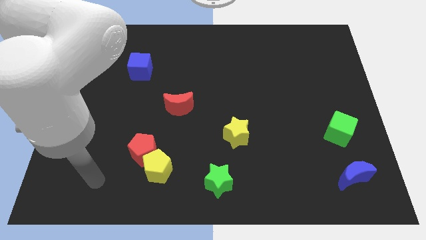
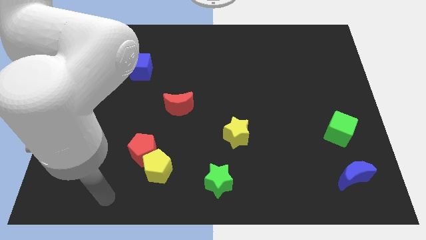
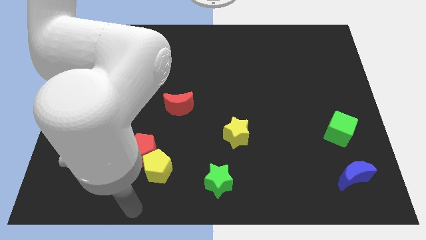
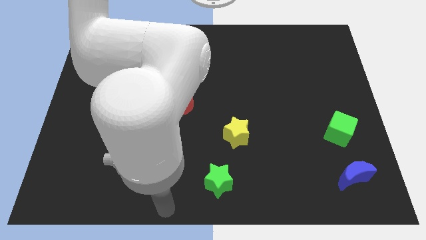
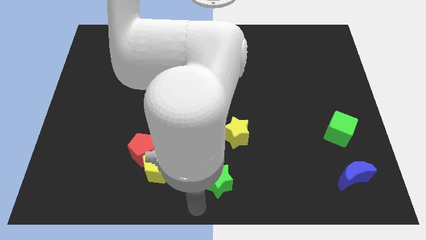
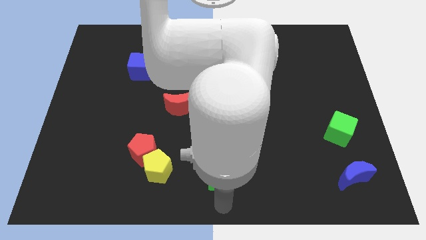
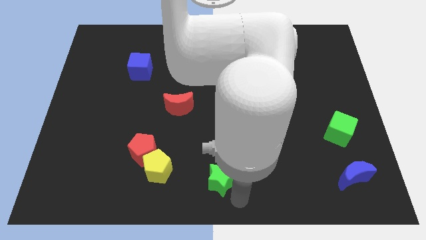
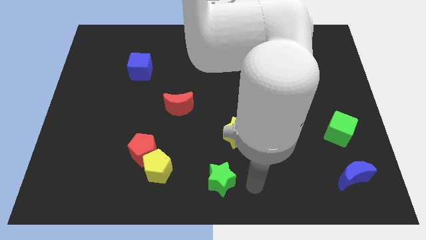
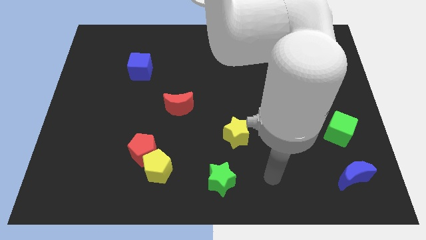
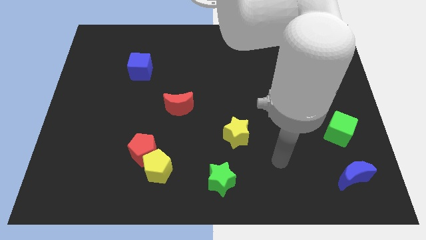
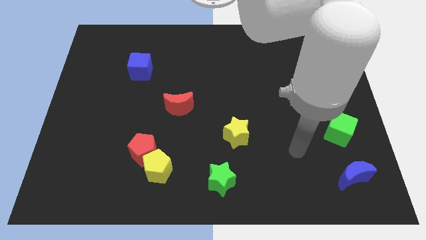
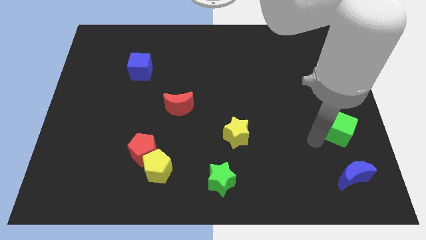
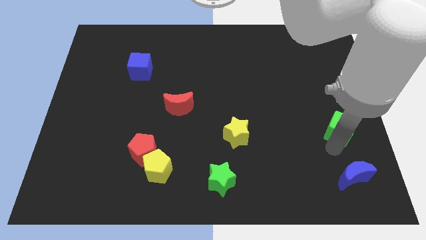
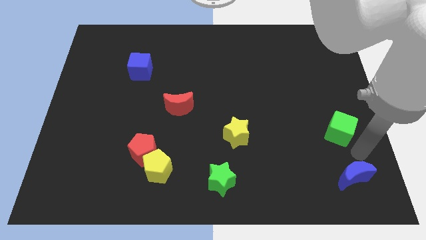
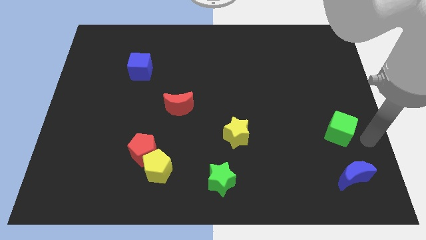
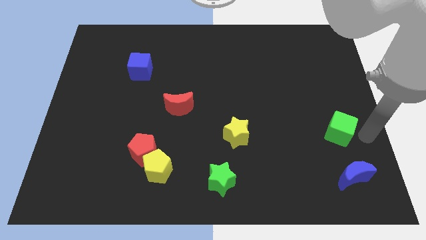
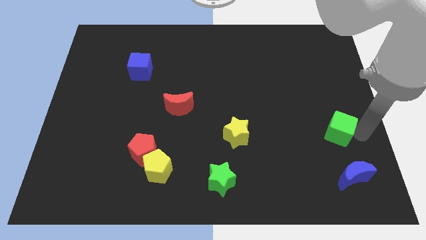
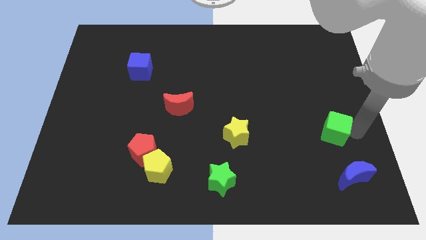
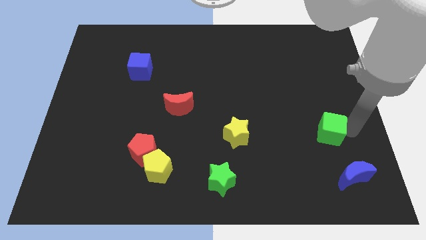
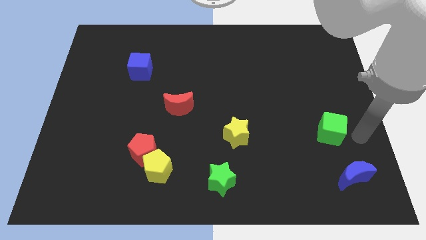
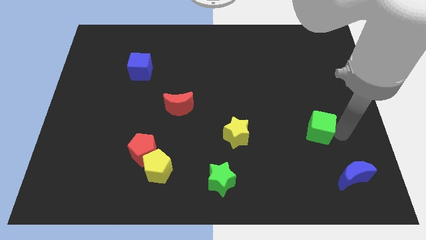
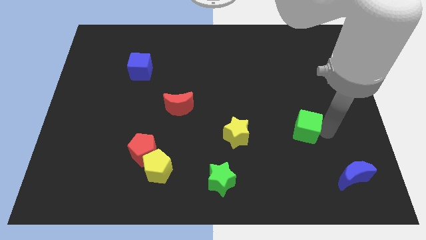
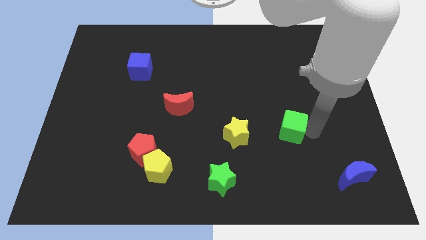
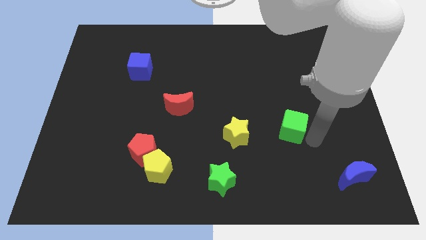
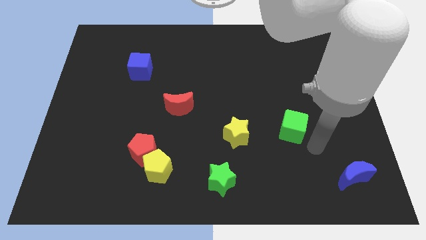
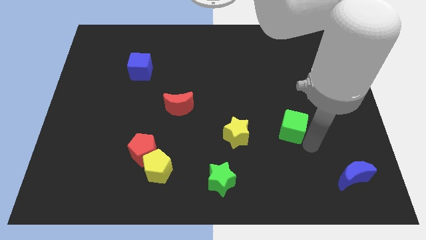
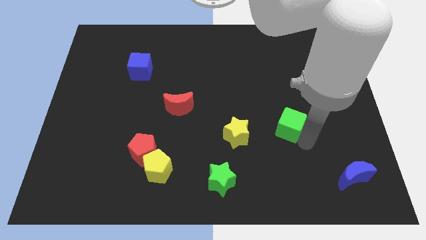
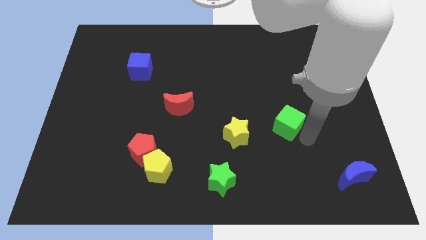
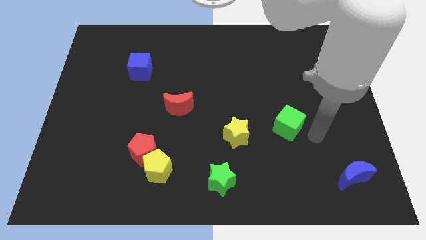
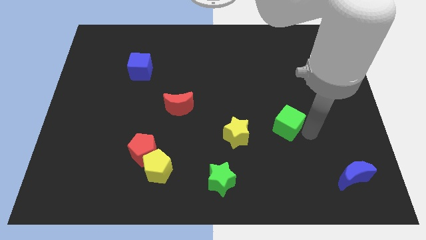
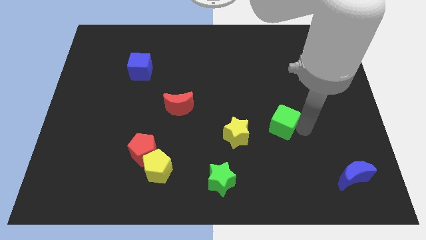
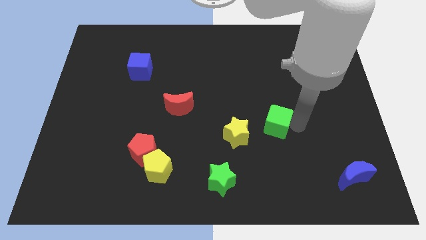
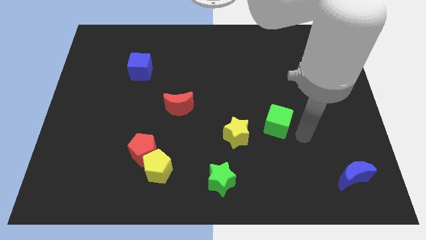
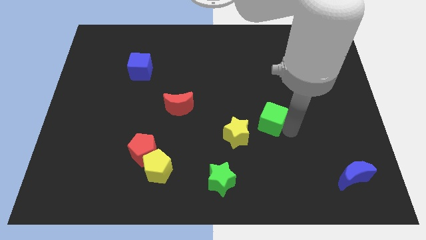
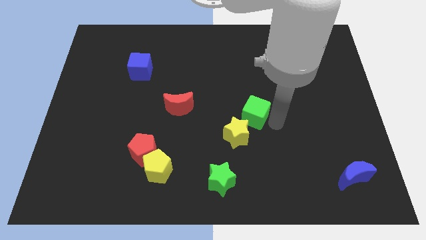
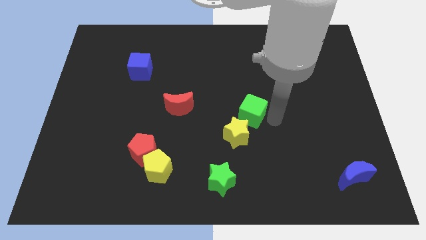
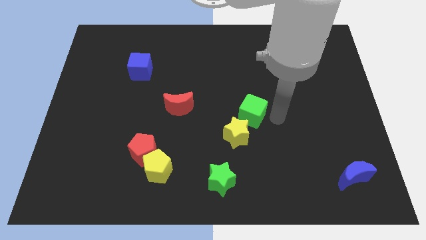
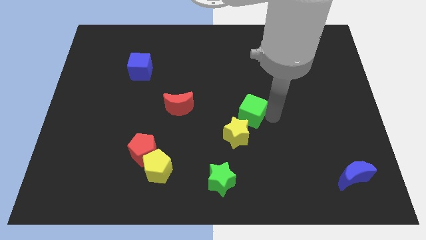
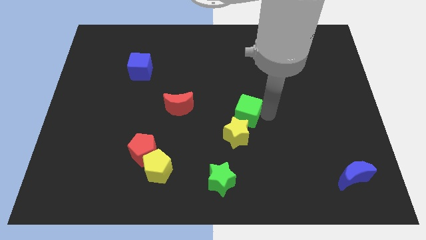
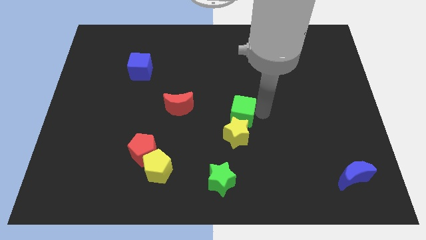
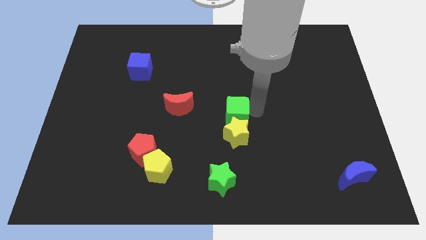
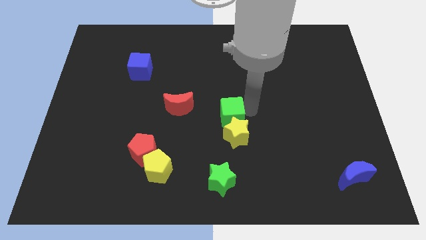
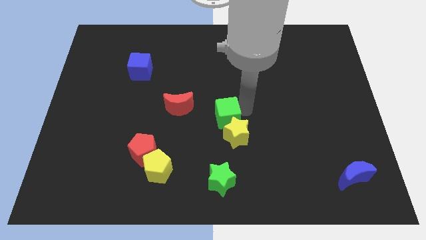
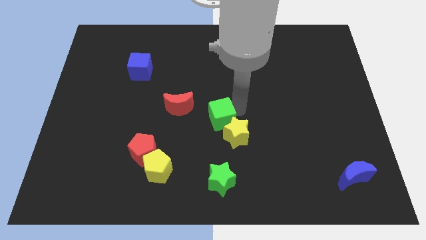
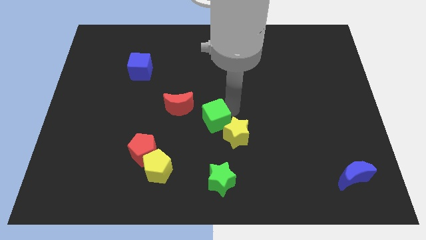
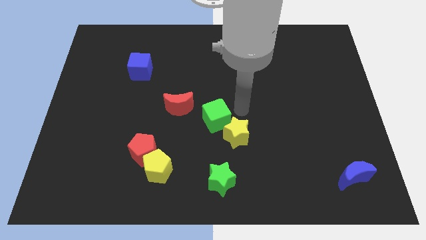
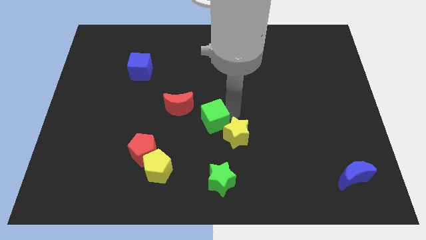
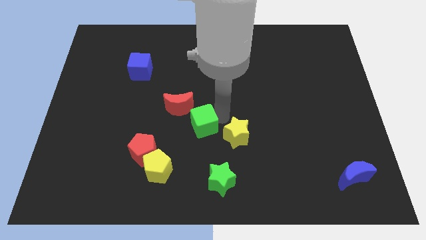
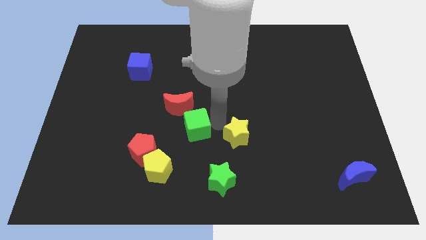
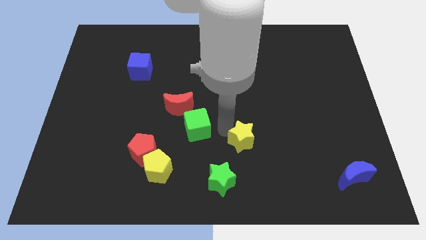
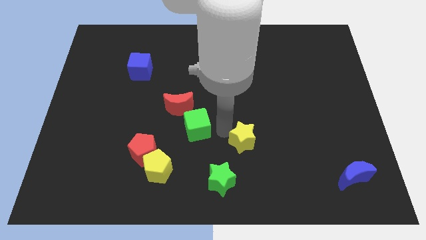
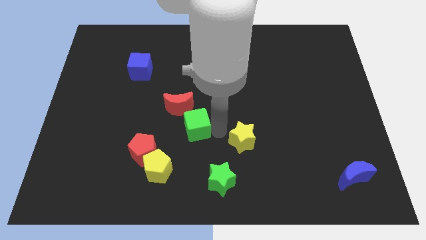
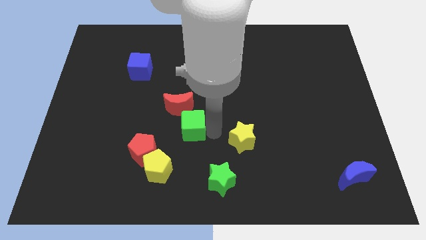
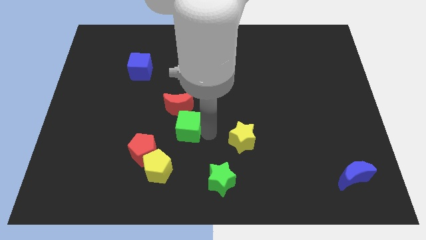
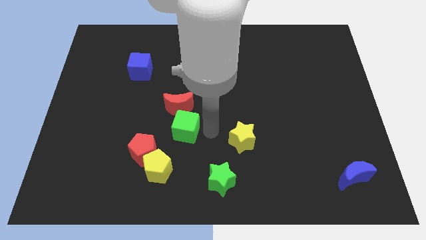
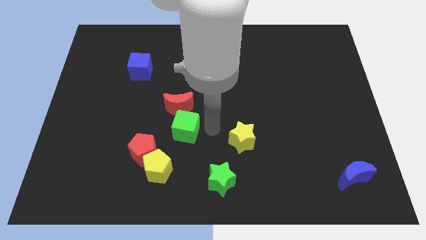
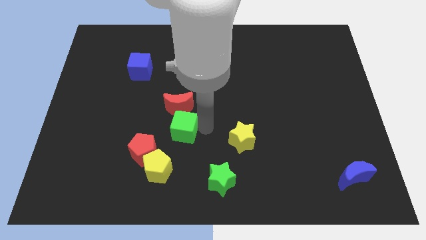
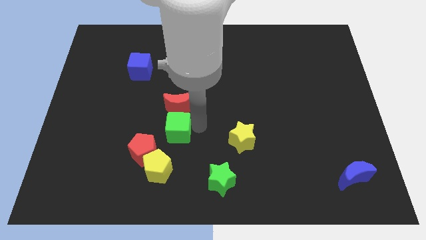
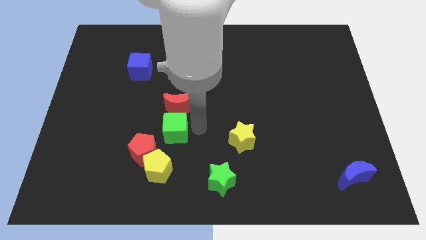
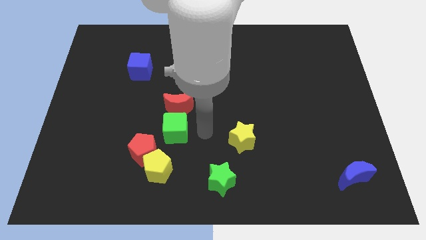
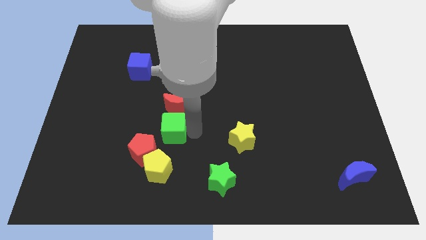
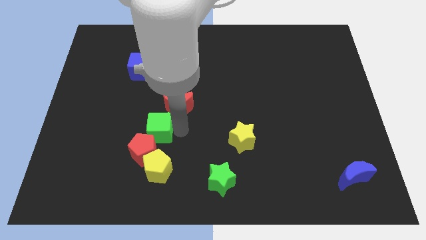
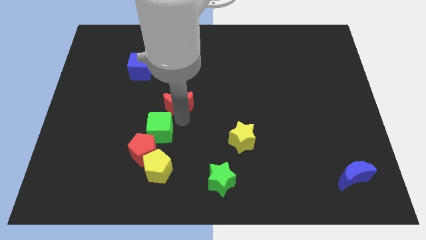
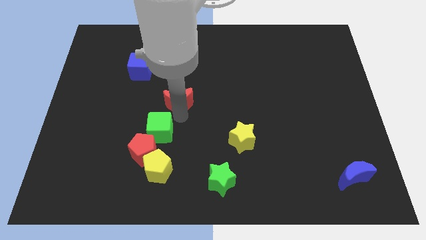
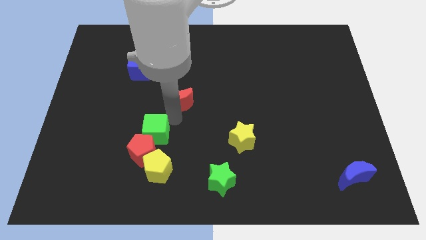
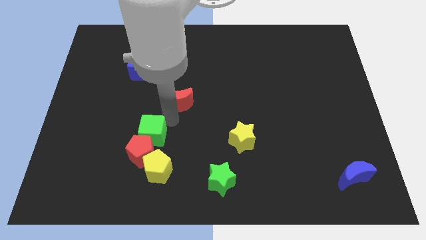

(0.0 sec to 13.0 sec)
put the green cube to the top left of the yellow pentagon

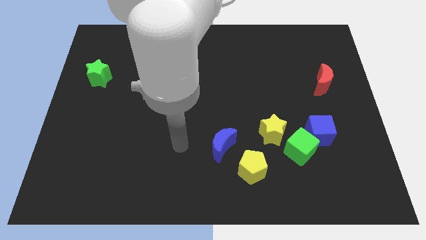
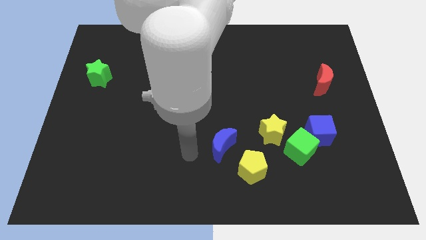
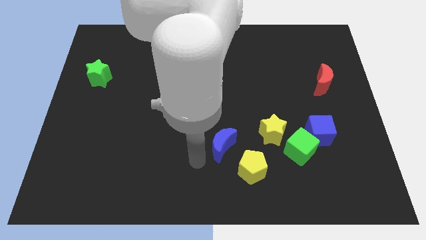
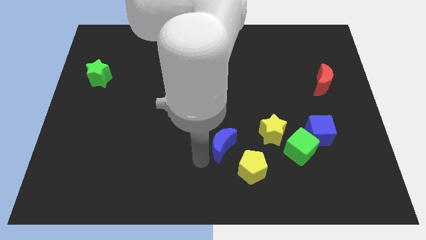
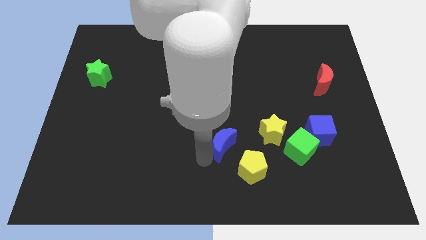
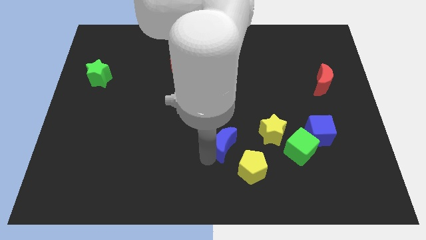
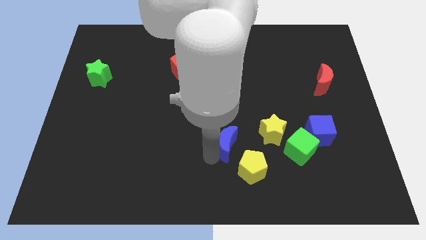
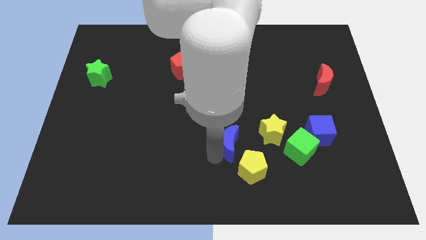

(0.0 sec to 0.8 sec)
slide the blue moon above the yellow pentagon
